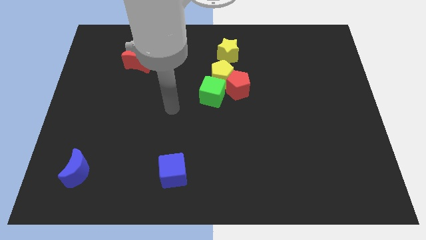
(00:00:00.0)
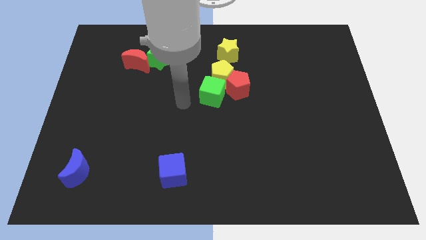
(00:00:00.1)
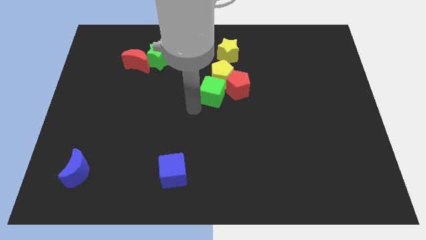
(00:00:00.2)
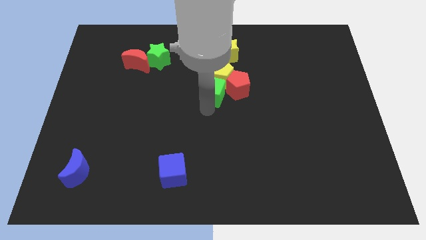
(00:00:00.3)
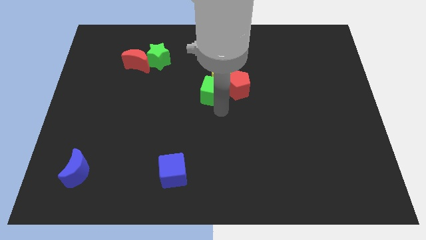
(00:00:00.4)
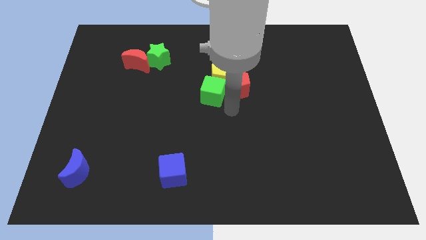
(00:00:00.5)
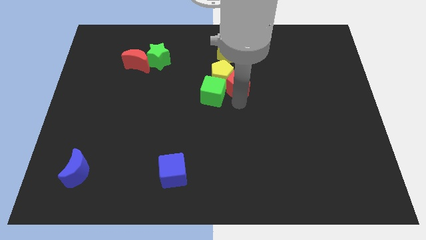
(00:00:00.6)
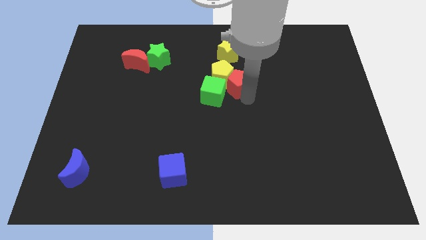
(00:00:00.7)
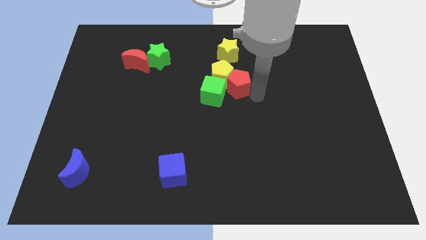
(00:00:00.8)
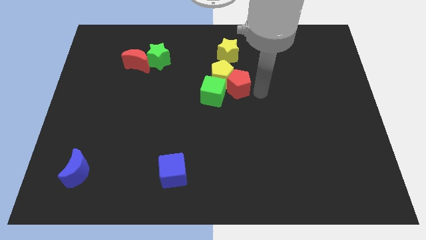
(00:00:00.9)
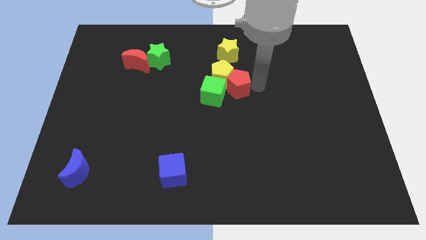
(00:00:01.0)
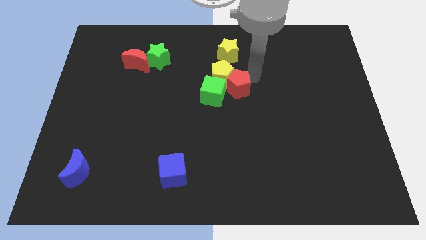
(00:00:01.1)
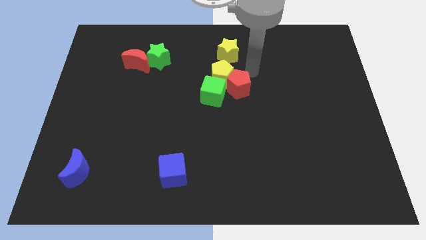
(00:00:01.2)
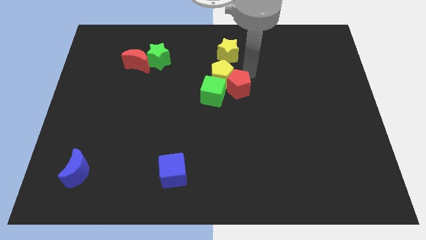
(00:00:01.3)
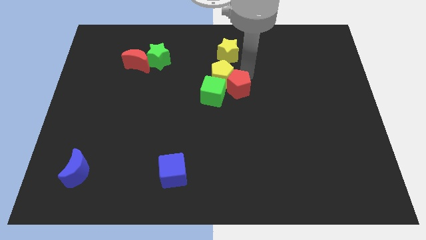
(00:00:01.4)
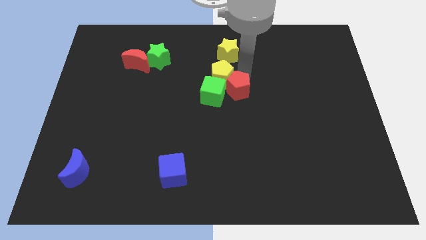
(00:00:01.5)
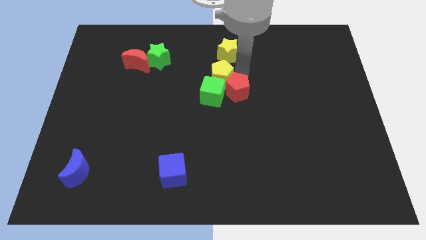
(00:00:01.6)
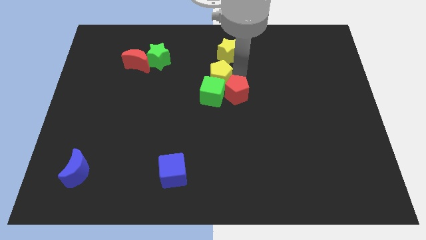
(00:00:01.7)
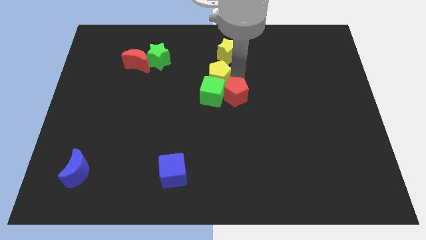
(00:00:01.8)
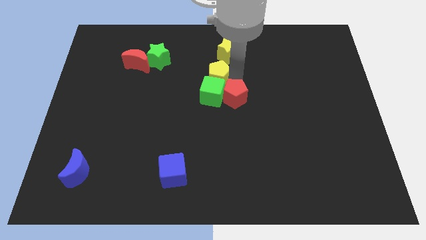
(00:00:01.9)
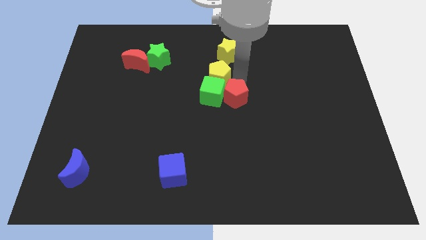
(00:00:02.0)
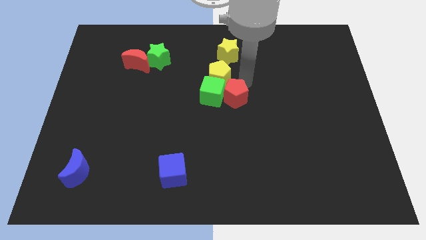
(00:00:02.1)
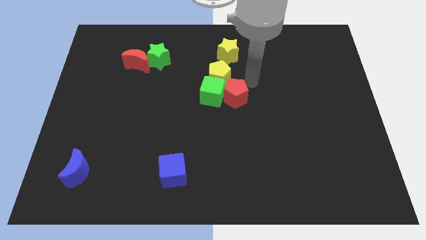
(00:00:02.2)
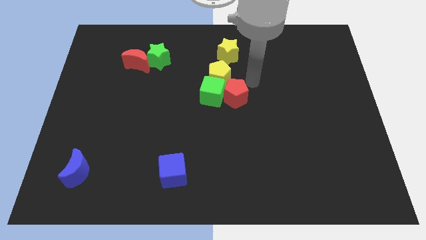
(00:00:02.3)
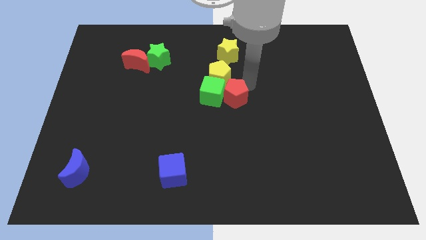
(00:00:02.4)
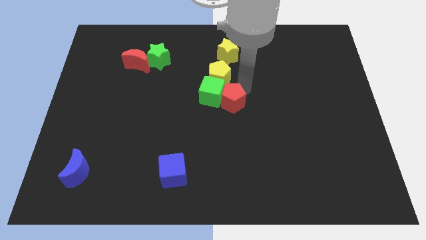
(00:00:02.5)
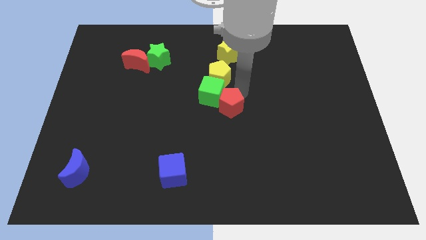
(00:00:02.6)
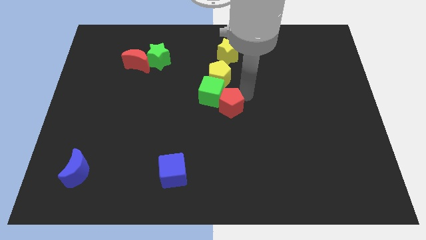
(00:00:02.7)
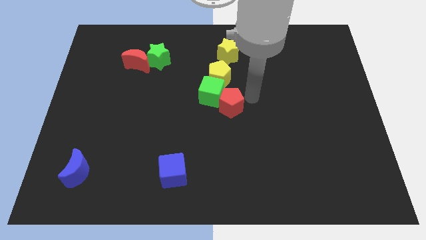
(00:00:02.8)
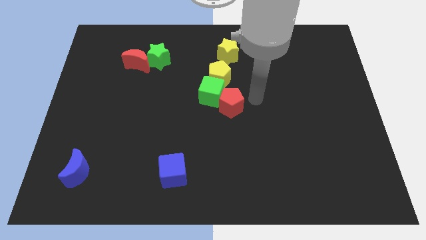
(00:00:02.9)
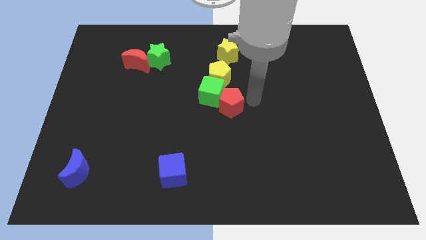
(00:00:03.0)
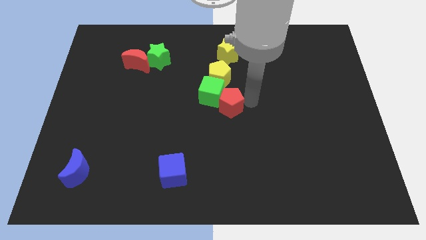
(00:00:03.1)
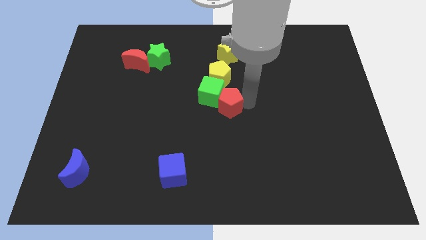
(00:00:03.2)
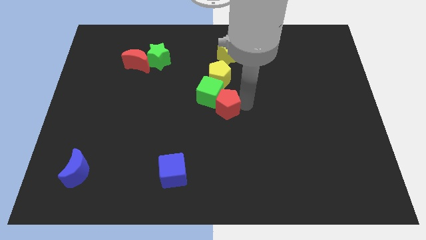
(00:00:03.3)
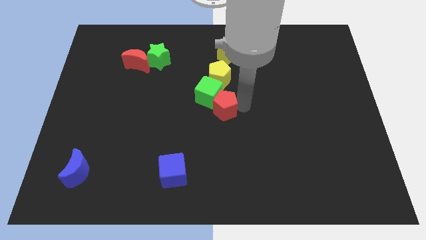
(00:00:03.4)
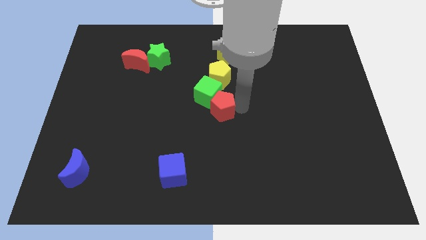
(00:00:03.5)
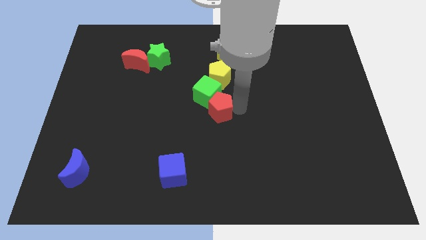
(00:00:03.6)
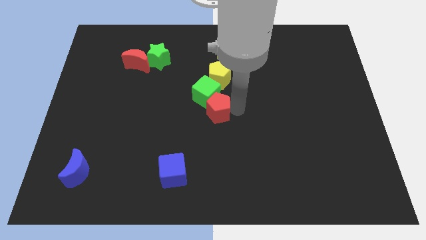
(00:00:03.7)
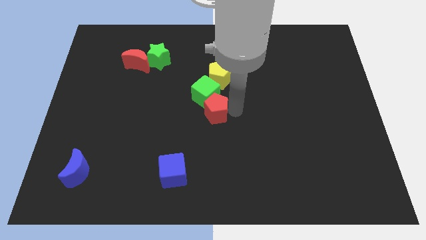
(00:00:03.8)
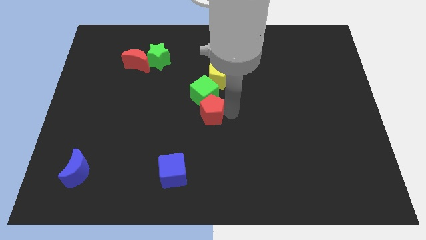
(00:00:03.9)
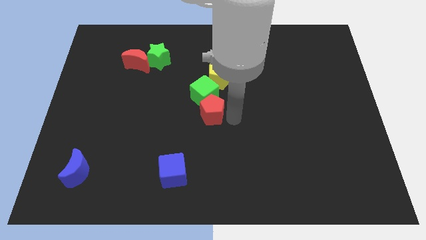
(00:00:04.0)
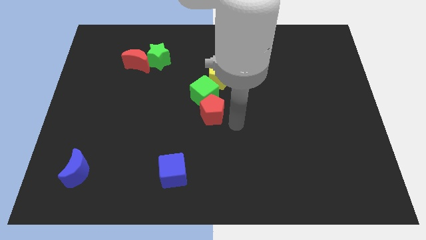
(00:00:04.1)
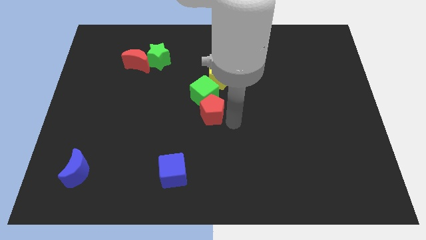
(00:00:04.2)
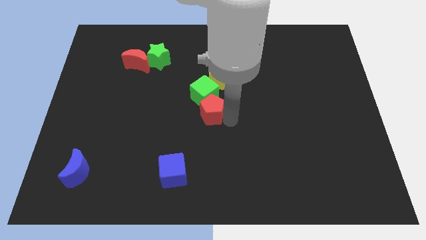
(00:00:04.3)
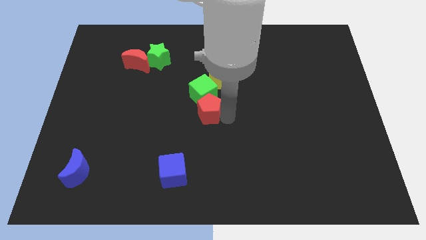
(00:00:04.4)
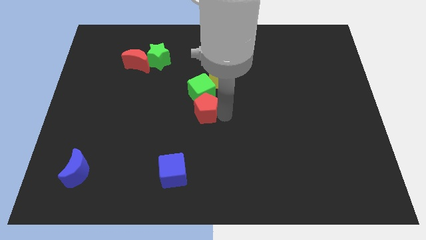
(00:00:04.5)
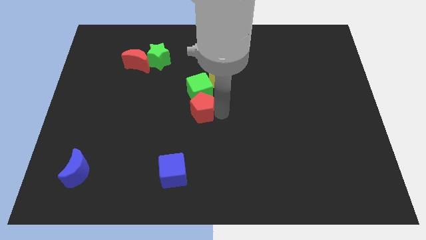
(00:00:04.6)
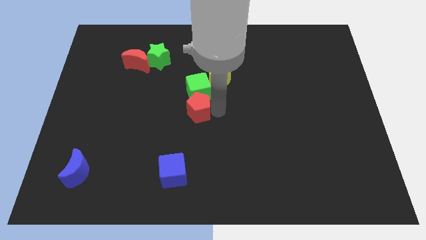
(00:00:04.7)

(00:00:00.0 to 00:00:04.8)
slightly slide the red pentagon left

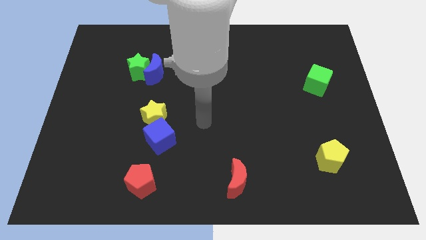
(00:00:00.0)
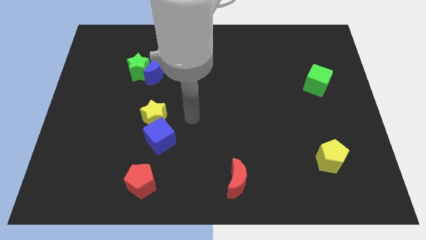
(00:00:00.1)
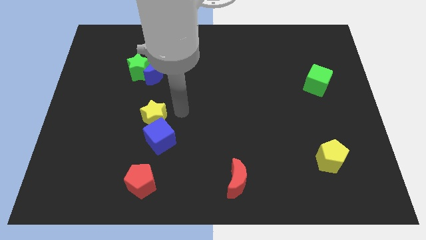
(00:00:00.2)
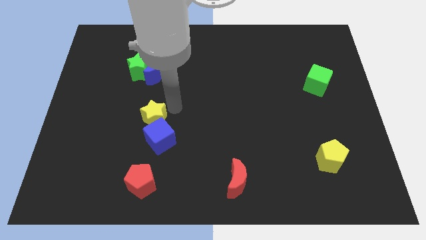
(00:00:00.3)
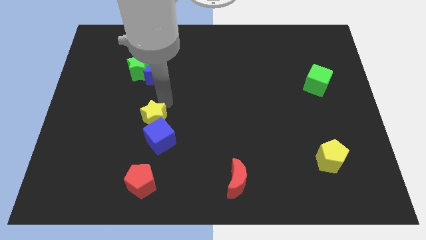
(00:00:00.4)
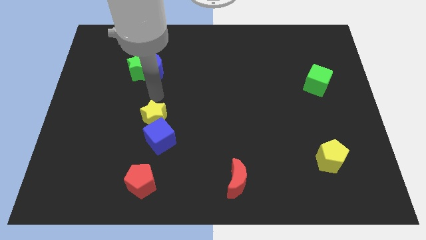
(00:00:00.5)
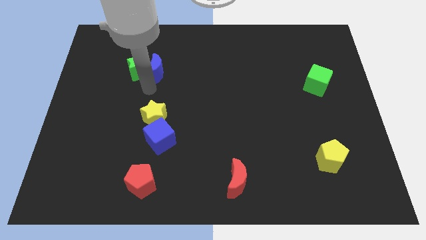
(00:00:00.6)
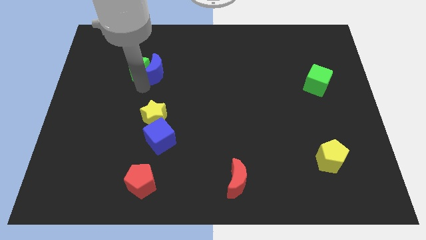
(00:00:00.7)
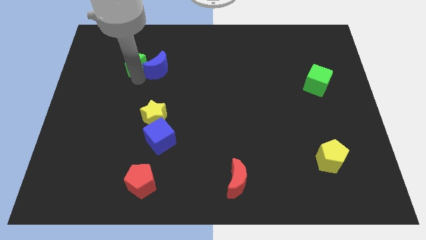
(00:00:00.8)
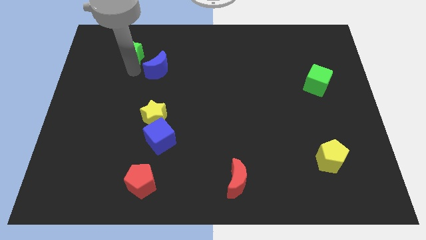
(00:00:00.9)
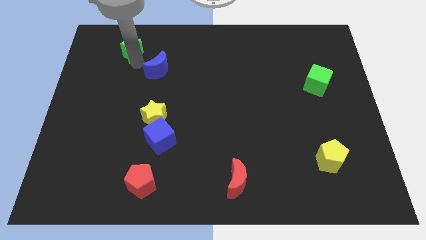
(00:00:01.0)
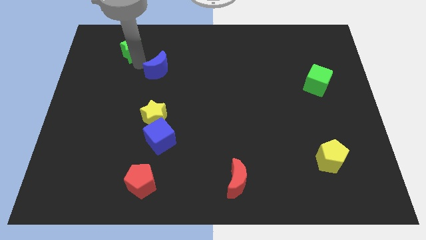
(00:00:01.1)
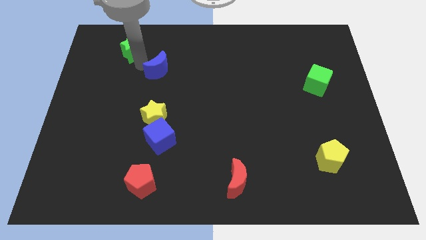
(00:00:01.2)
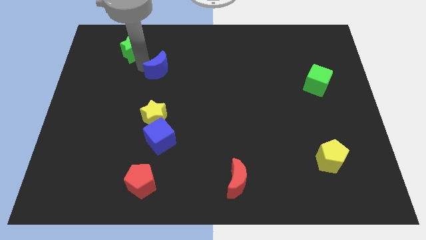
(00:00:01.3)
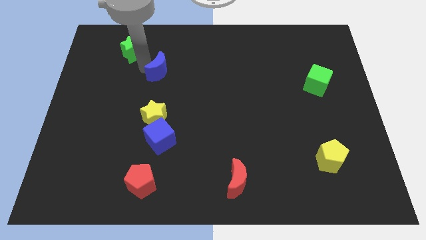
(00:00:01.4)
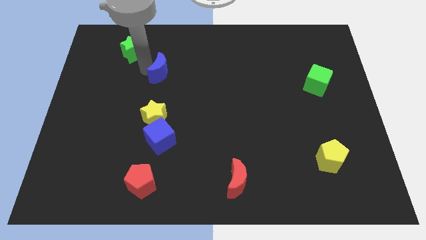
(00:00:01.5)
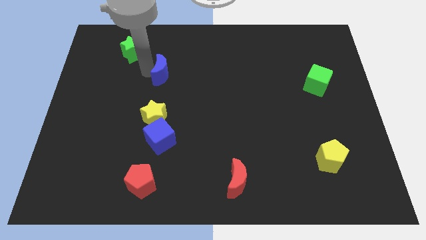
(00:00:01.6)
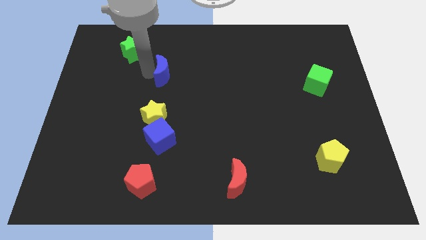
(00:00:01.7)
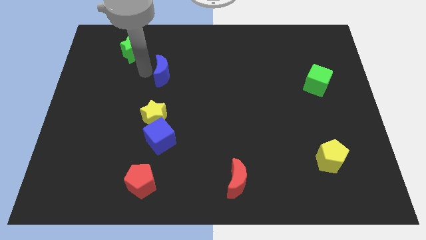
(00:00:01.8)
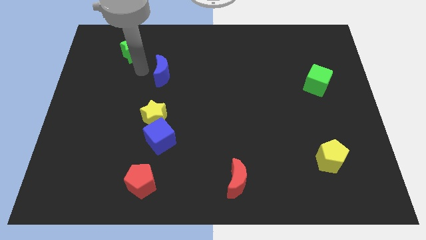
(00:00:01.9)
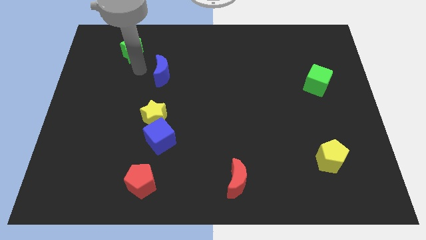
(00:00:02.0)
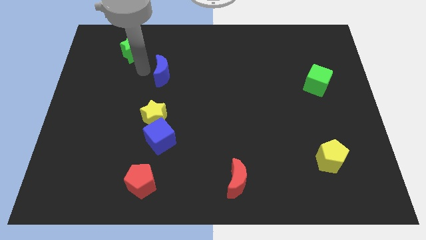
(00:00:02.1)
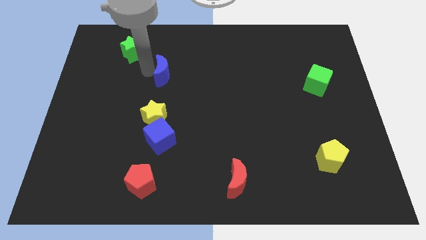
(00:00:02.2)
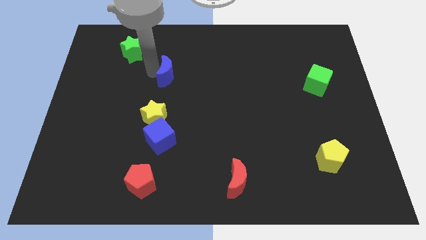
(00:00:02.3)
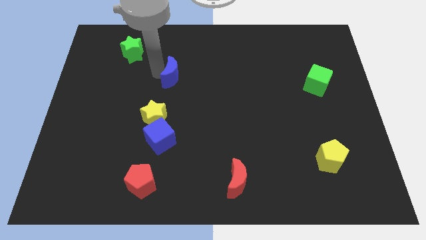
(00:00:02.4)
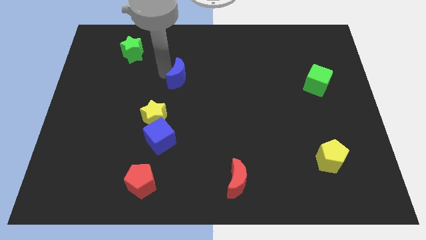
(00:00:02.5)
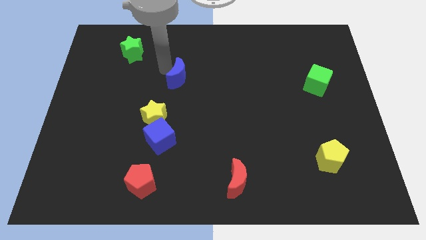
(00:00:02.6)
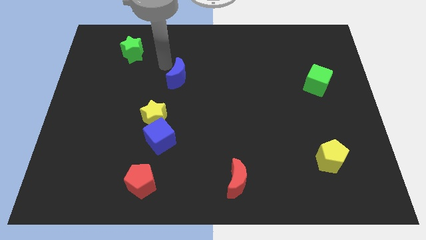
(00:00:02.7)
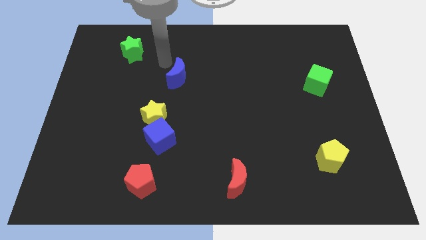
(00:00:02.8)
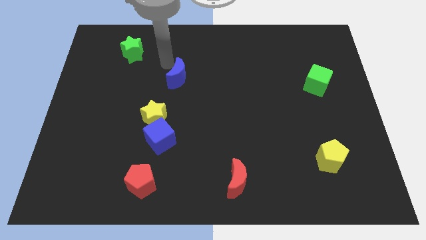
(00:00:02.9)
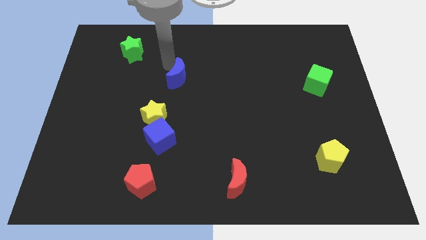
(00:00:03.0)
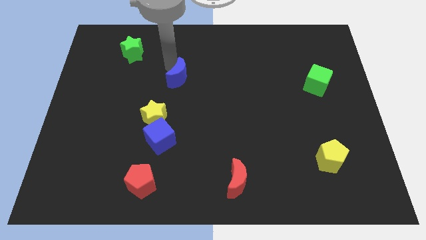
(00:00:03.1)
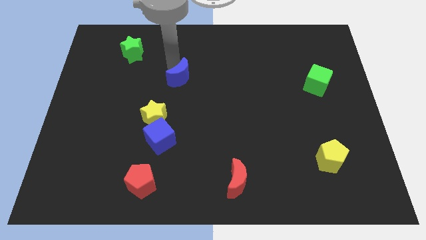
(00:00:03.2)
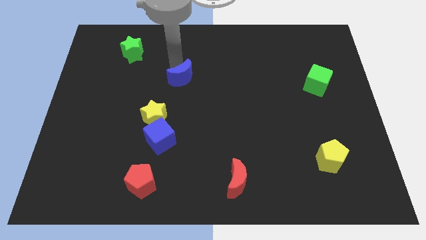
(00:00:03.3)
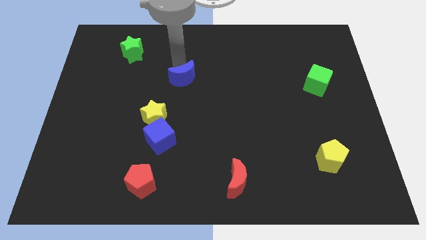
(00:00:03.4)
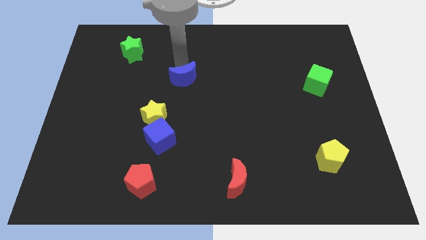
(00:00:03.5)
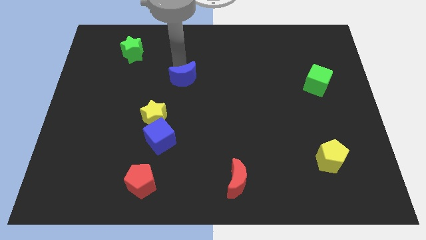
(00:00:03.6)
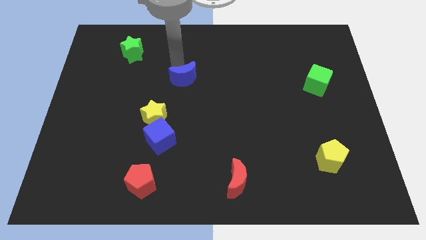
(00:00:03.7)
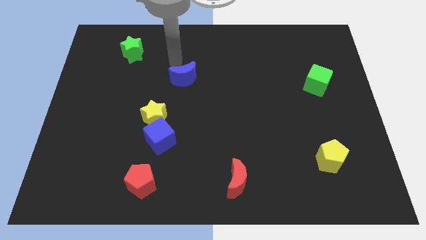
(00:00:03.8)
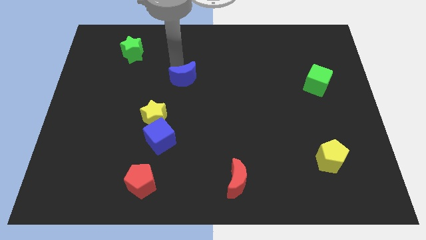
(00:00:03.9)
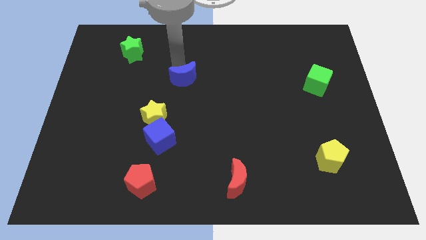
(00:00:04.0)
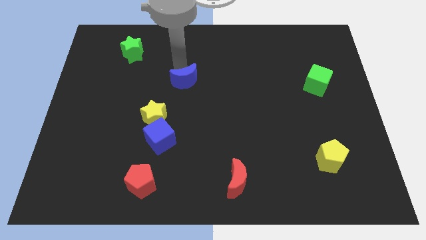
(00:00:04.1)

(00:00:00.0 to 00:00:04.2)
move the blue moon slightly downwards and then right
